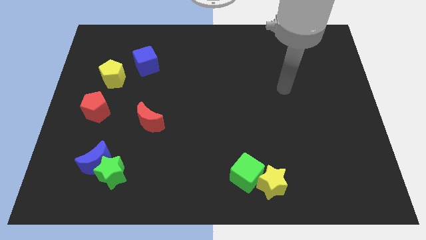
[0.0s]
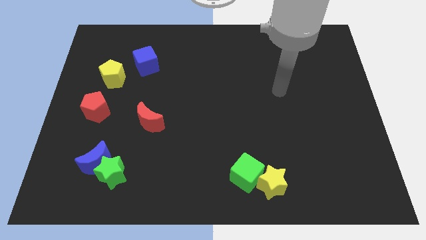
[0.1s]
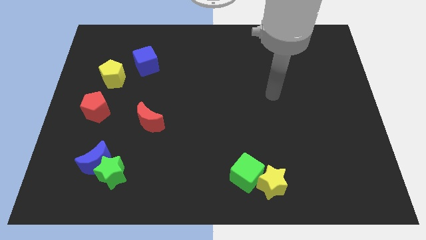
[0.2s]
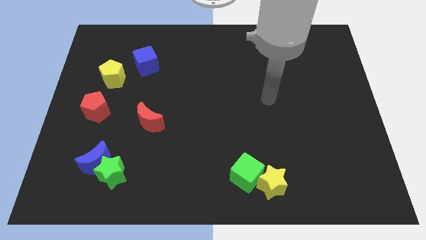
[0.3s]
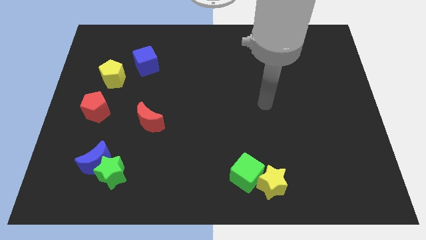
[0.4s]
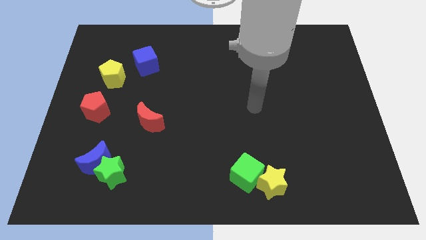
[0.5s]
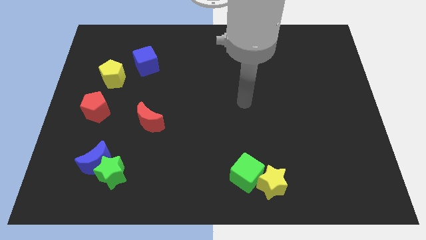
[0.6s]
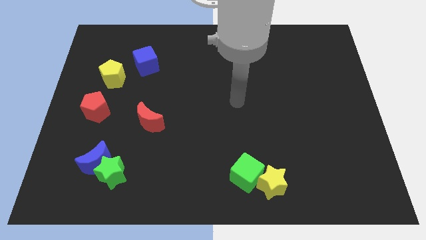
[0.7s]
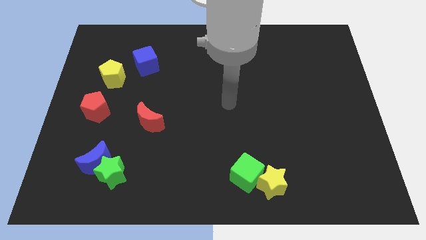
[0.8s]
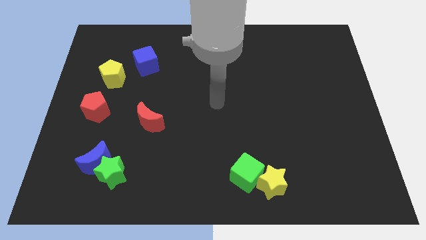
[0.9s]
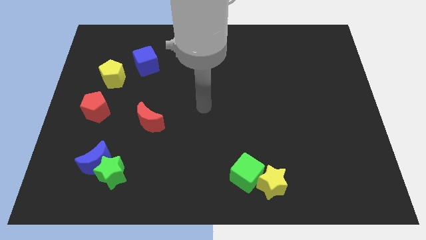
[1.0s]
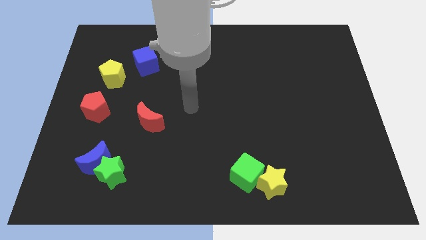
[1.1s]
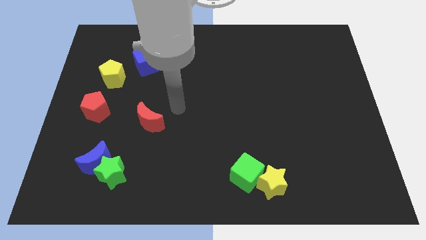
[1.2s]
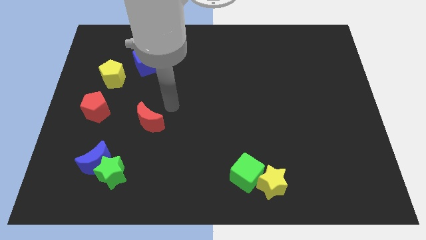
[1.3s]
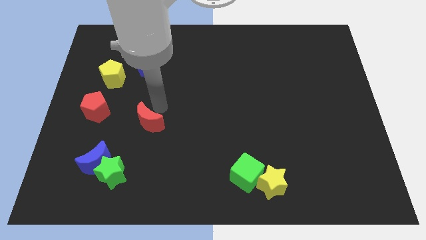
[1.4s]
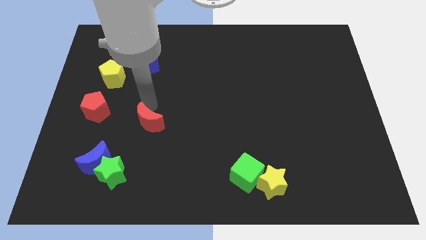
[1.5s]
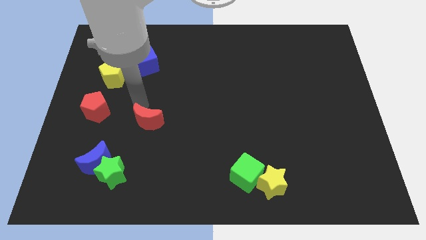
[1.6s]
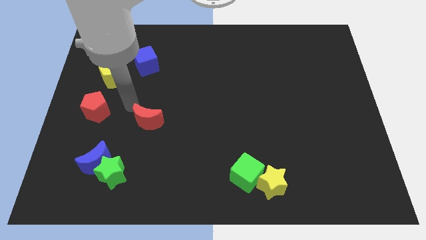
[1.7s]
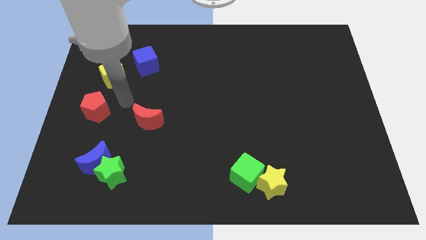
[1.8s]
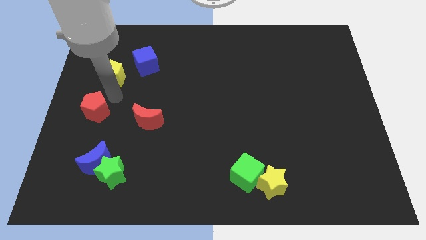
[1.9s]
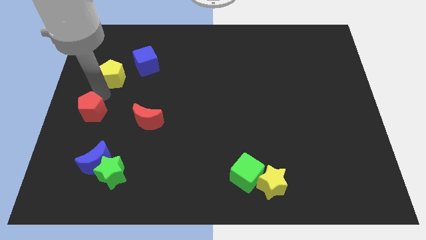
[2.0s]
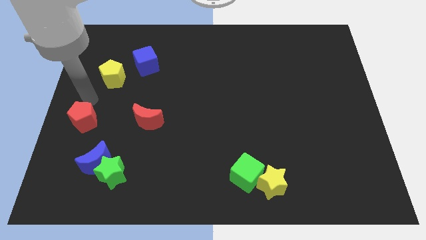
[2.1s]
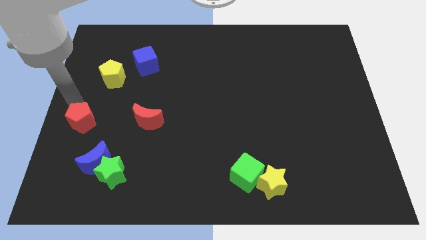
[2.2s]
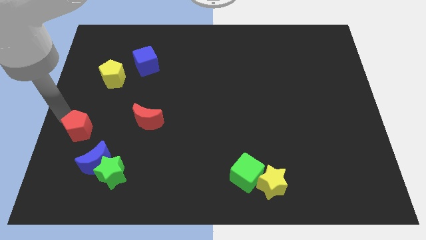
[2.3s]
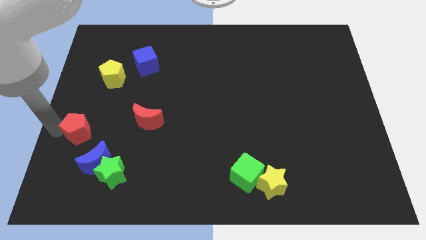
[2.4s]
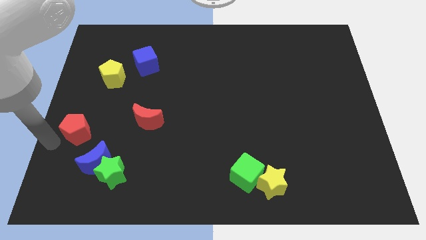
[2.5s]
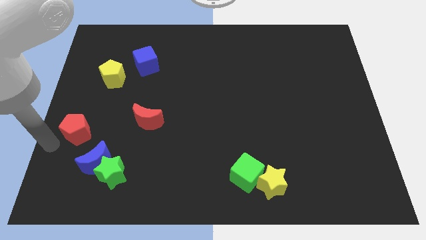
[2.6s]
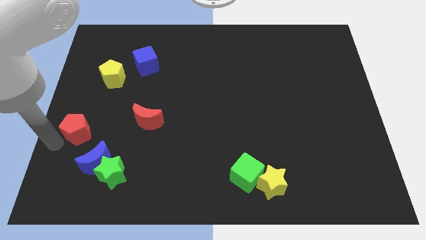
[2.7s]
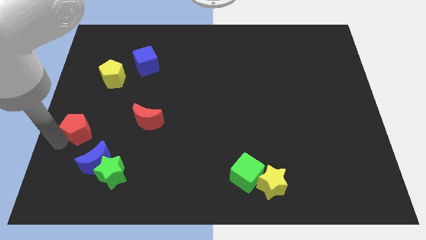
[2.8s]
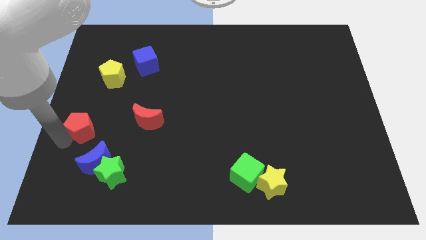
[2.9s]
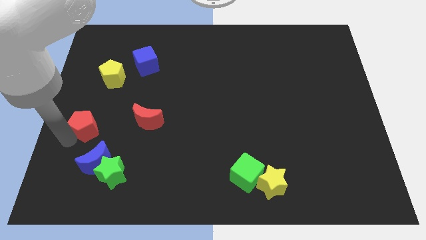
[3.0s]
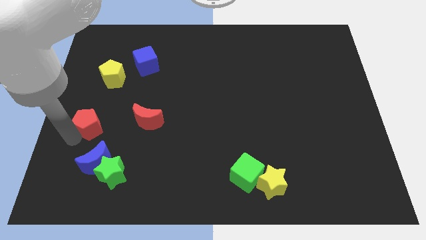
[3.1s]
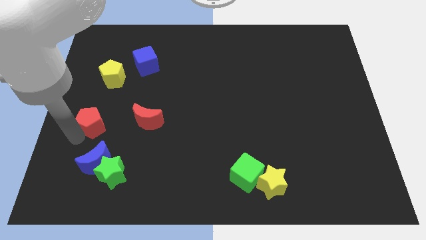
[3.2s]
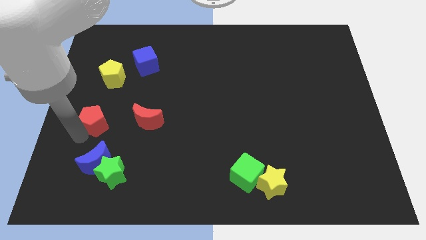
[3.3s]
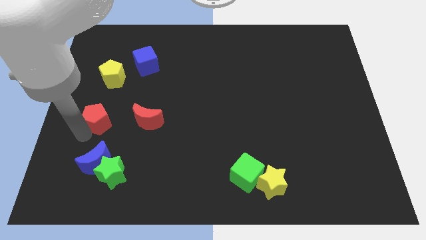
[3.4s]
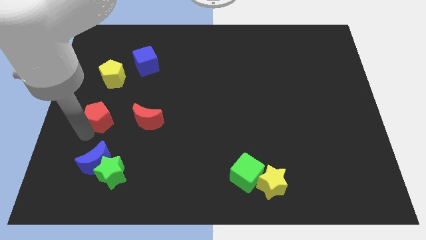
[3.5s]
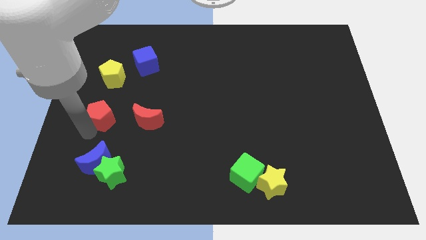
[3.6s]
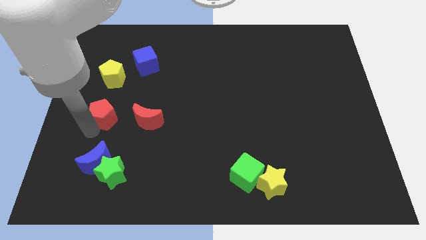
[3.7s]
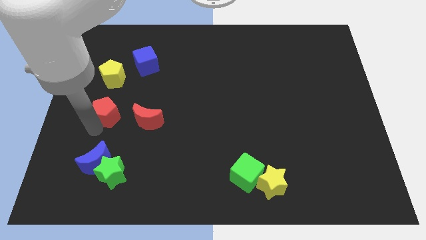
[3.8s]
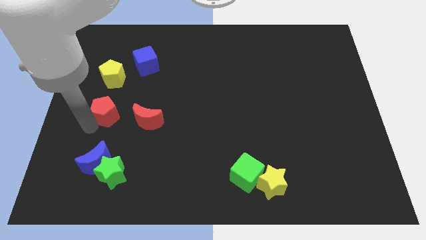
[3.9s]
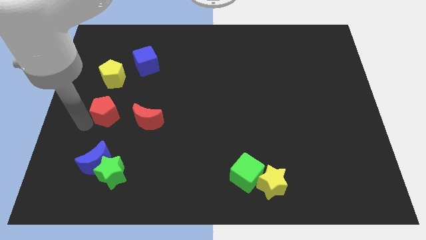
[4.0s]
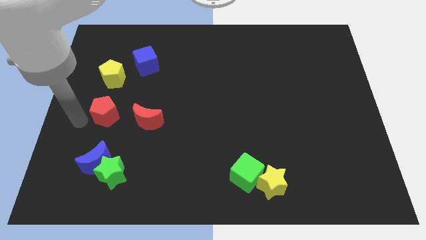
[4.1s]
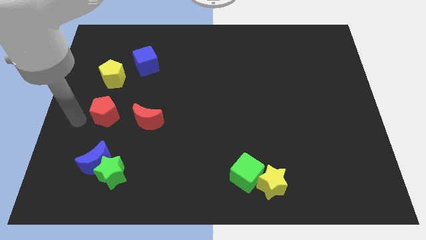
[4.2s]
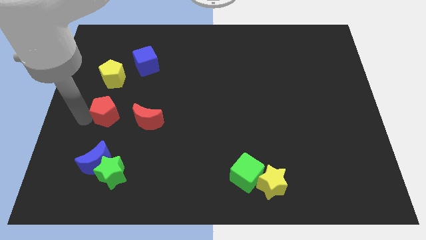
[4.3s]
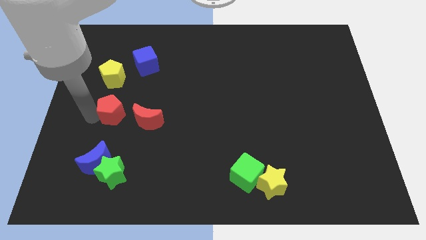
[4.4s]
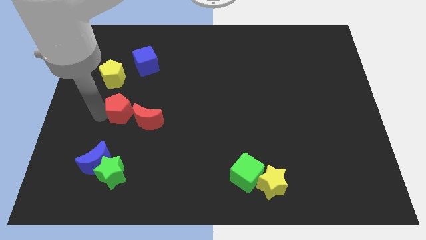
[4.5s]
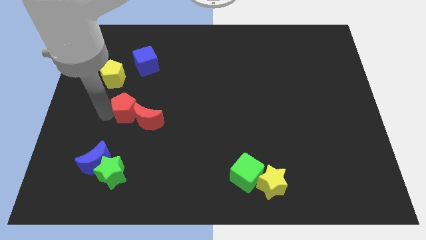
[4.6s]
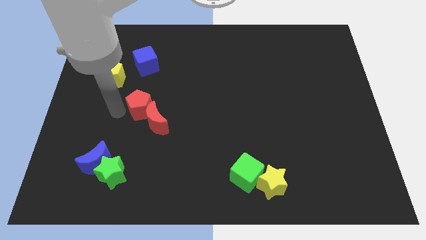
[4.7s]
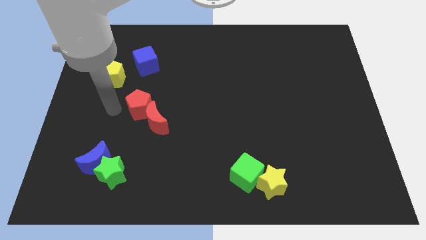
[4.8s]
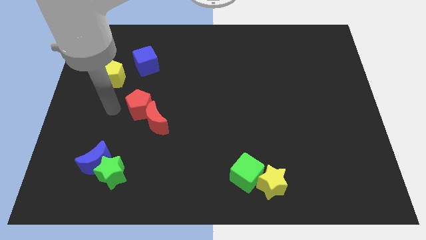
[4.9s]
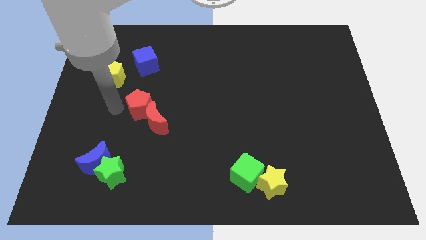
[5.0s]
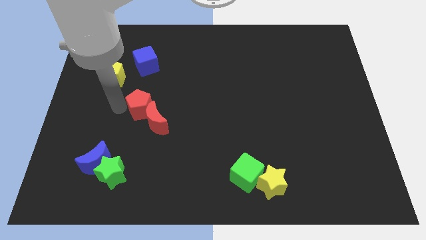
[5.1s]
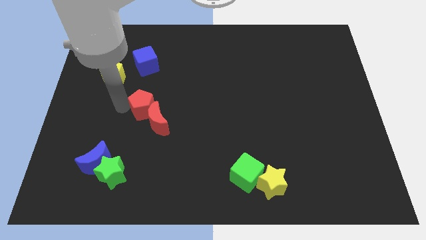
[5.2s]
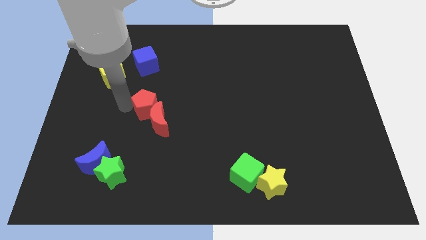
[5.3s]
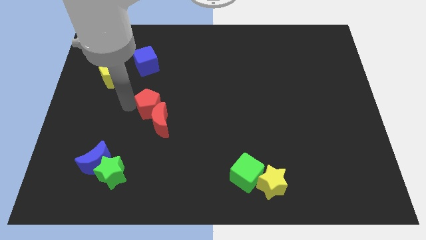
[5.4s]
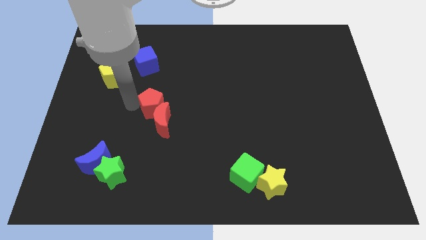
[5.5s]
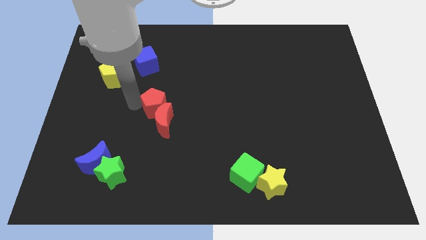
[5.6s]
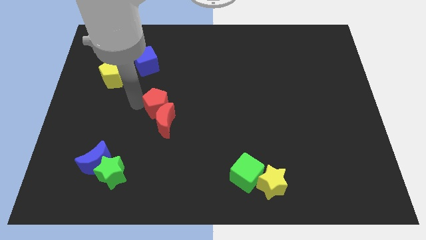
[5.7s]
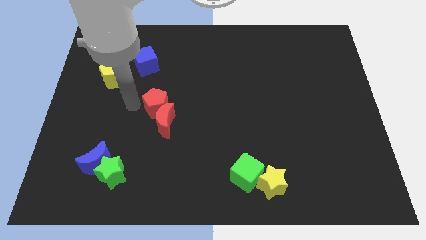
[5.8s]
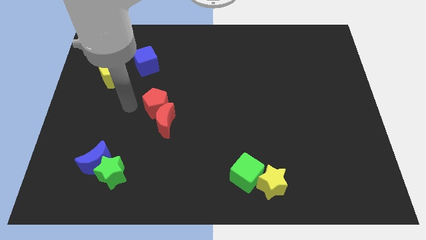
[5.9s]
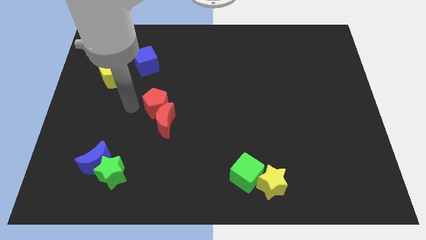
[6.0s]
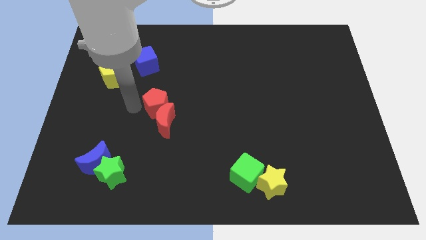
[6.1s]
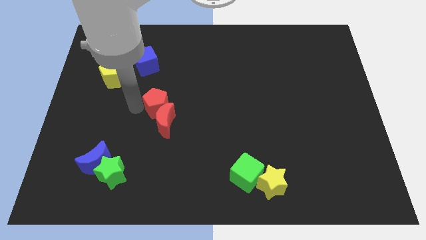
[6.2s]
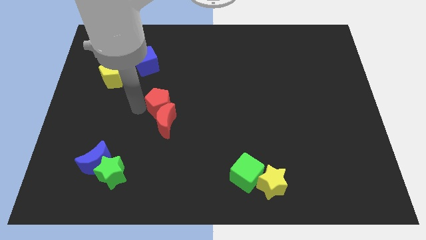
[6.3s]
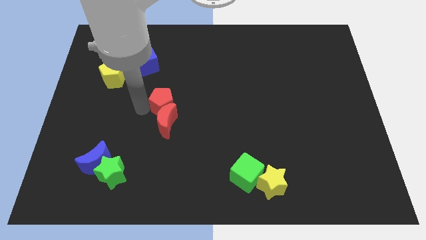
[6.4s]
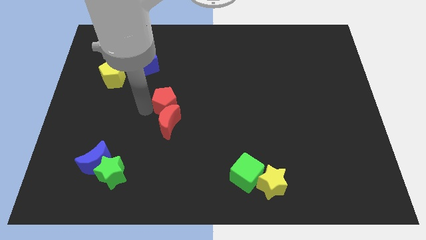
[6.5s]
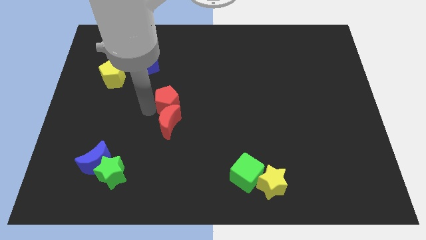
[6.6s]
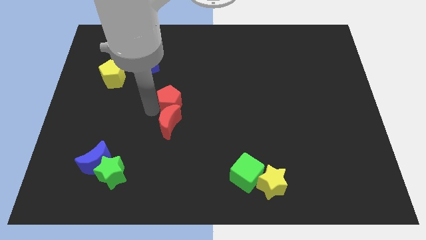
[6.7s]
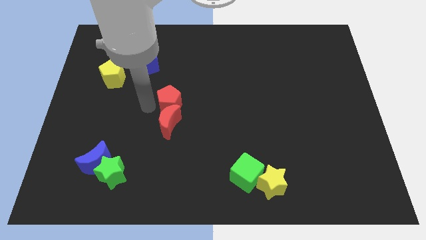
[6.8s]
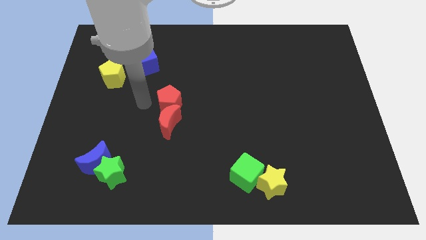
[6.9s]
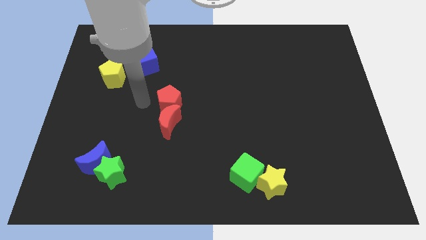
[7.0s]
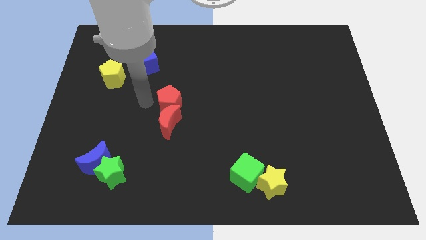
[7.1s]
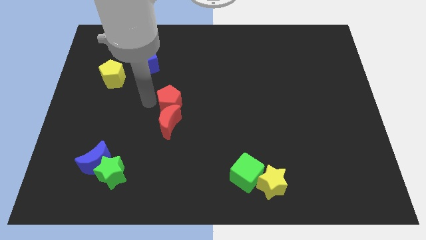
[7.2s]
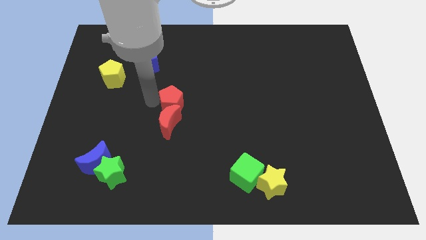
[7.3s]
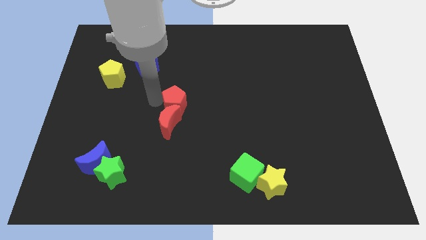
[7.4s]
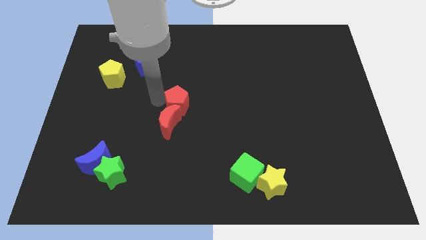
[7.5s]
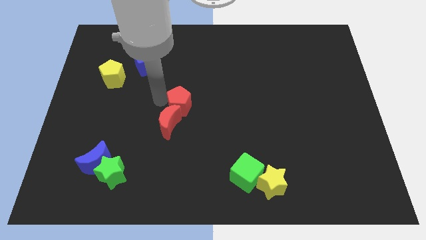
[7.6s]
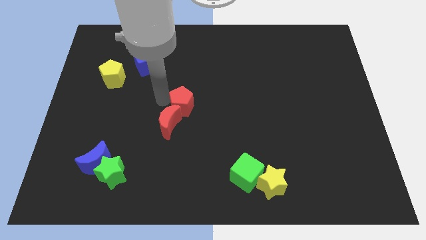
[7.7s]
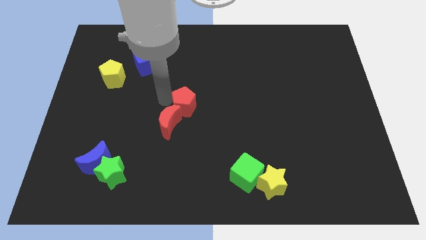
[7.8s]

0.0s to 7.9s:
slide the red pentagon to the right

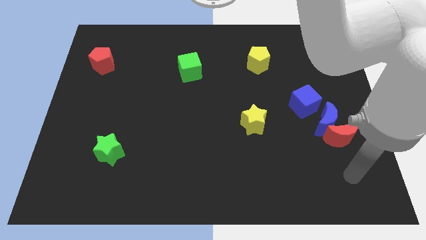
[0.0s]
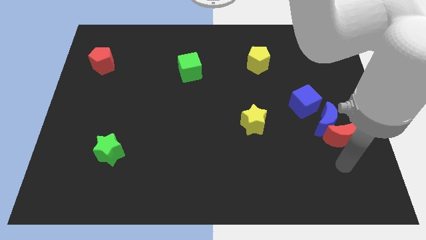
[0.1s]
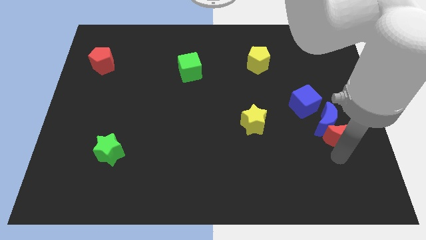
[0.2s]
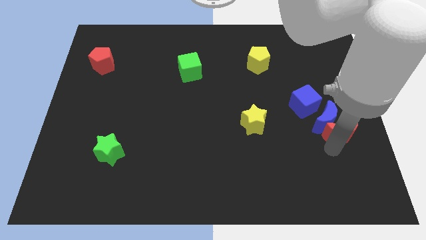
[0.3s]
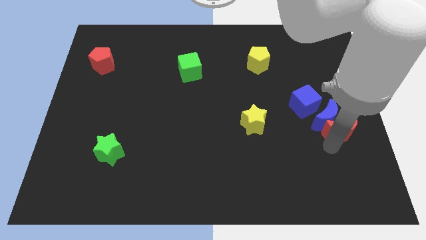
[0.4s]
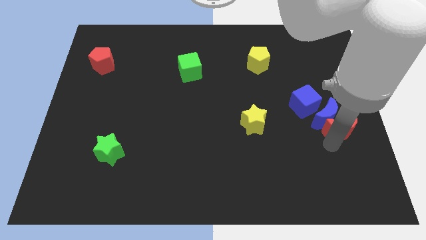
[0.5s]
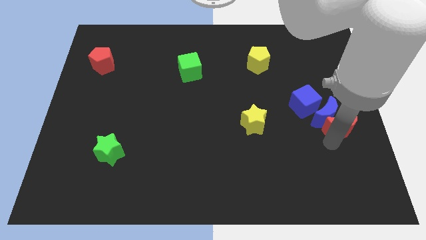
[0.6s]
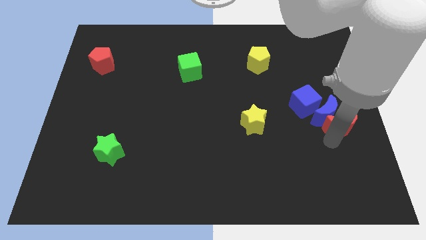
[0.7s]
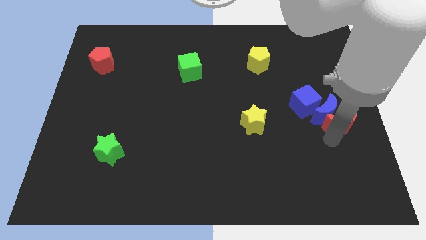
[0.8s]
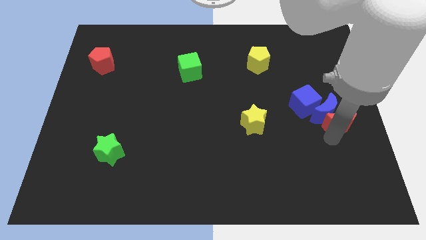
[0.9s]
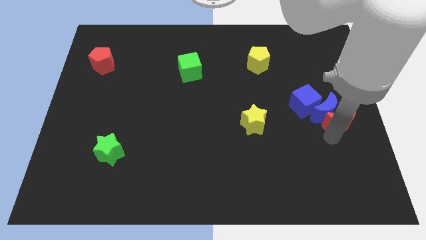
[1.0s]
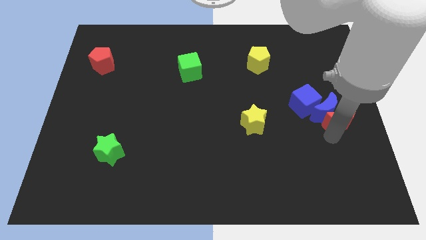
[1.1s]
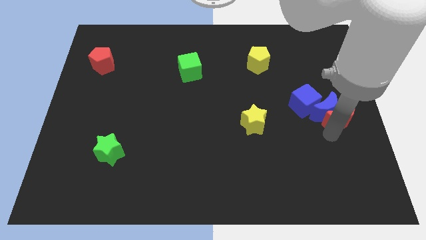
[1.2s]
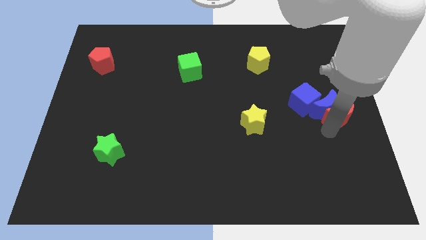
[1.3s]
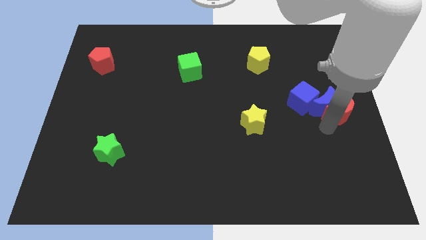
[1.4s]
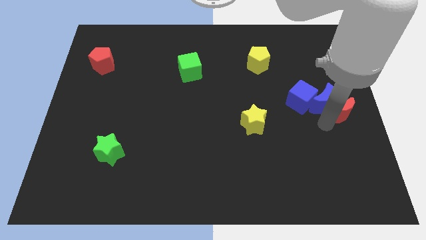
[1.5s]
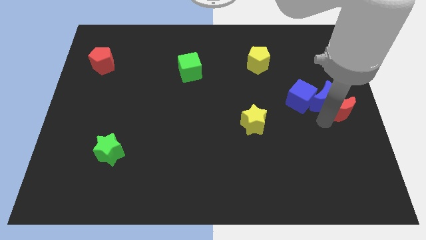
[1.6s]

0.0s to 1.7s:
slide the blue moon slightly up
